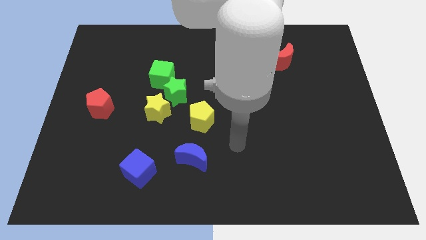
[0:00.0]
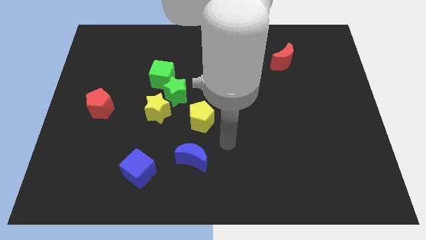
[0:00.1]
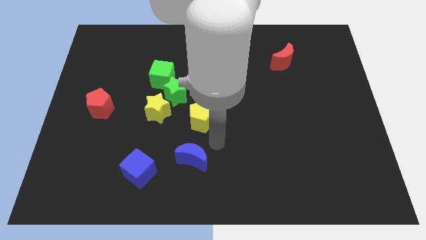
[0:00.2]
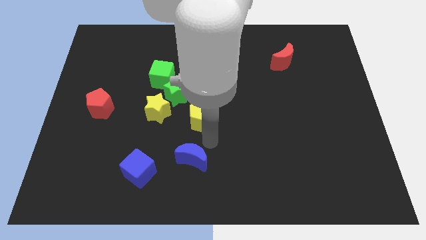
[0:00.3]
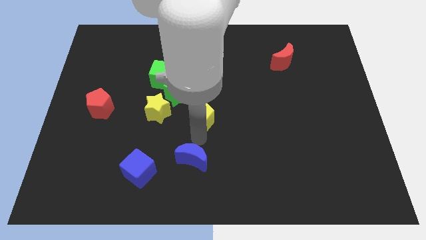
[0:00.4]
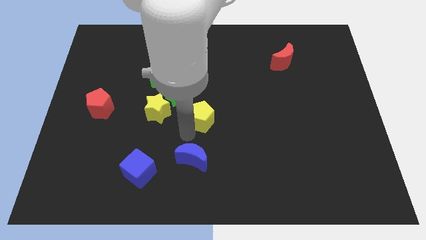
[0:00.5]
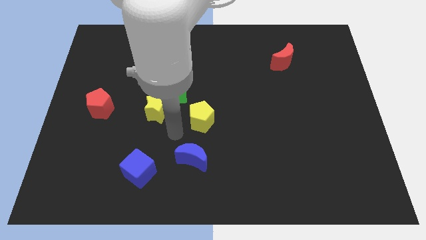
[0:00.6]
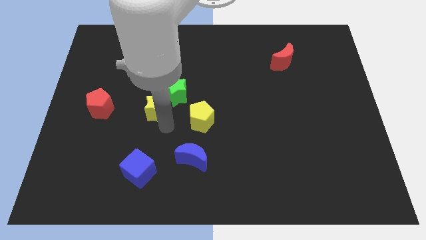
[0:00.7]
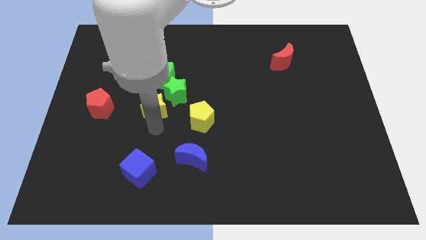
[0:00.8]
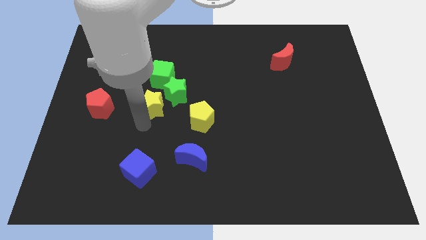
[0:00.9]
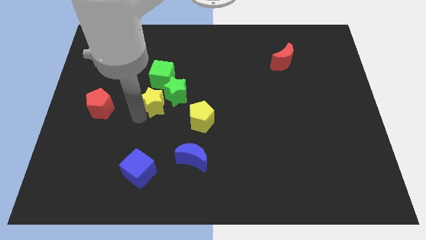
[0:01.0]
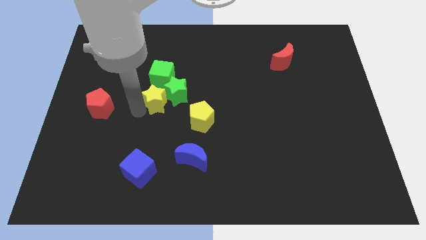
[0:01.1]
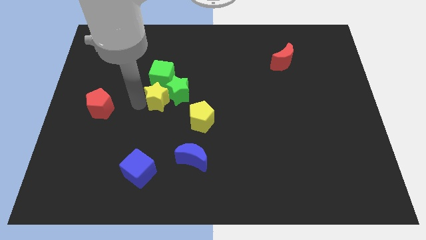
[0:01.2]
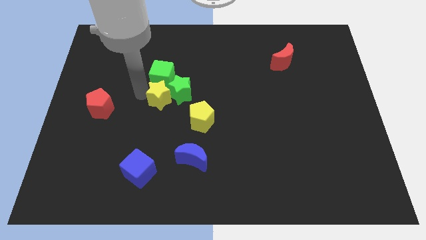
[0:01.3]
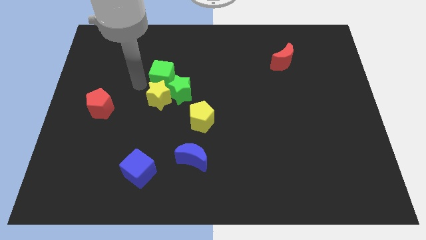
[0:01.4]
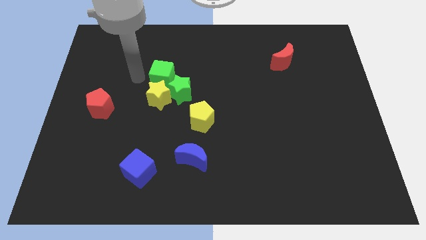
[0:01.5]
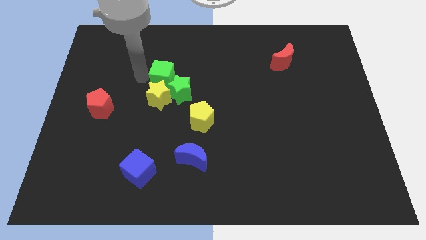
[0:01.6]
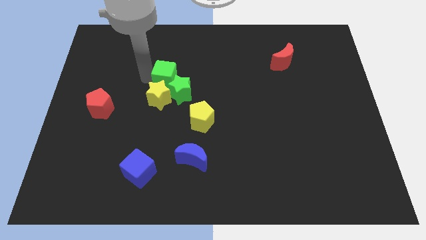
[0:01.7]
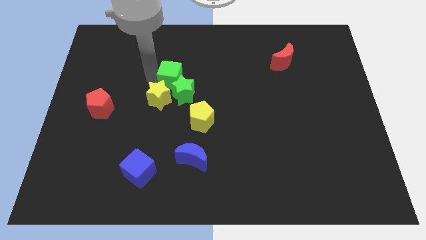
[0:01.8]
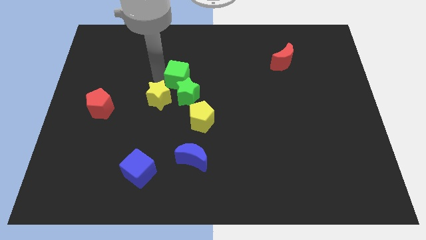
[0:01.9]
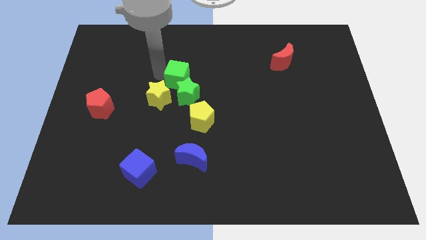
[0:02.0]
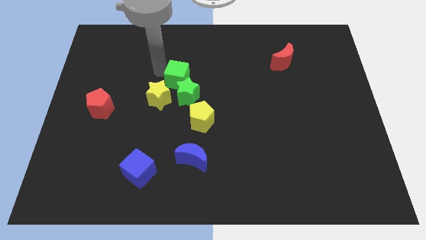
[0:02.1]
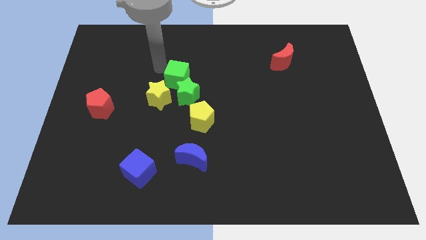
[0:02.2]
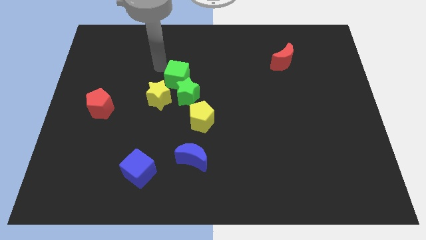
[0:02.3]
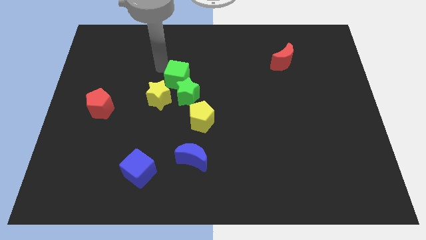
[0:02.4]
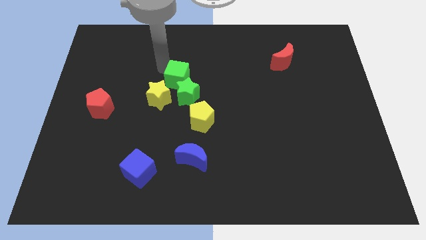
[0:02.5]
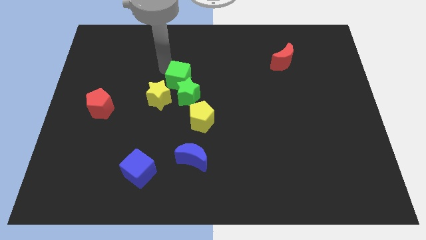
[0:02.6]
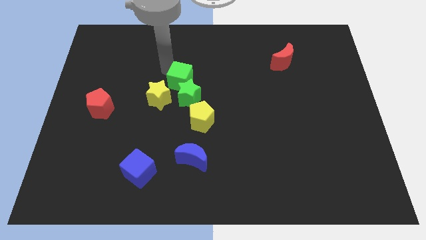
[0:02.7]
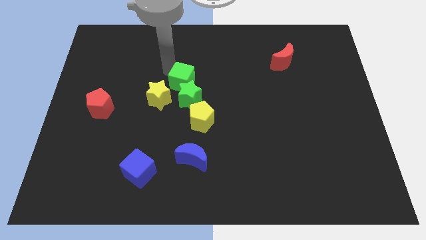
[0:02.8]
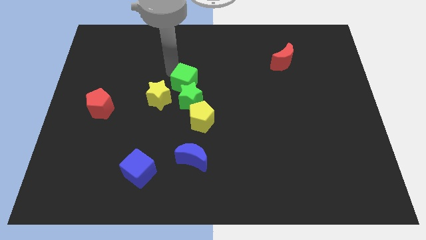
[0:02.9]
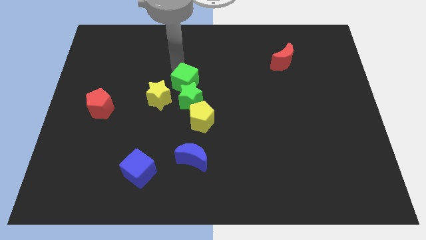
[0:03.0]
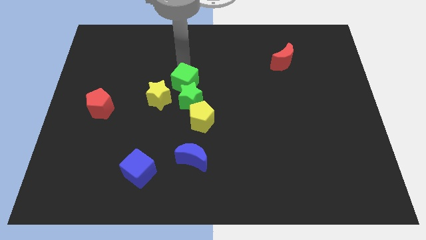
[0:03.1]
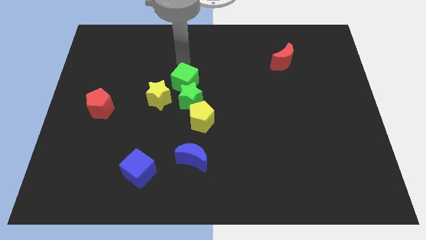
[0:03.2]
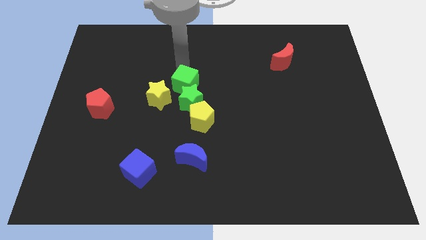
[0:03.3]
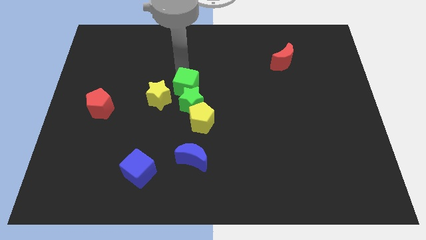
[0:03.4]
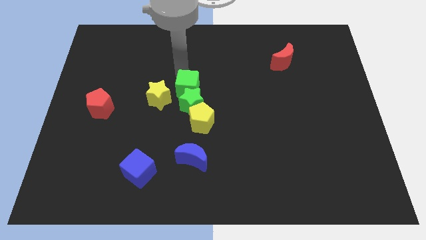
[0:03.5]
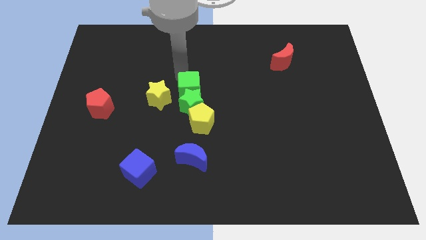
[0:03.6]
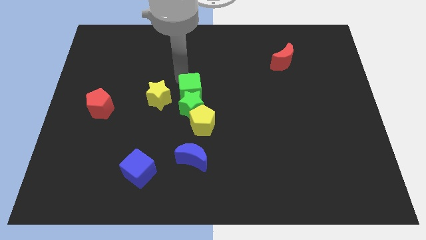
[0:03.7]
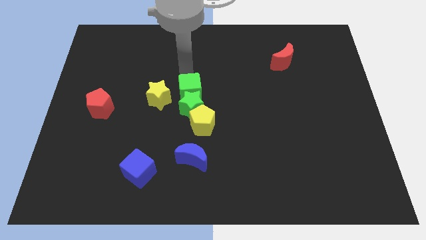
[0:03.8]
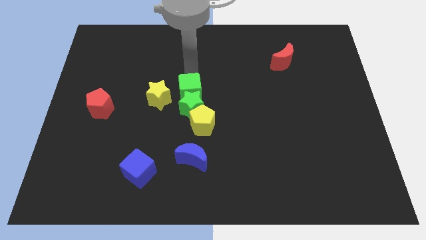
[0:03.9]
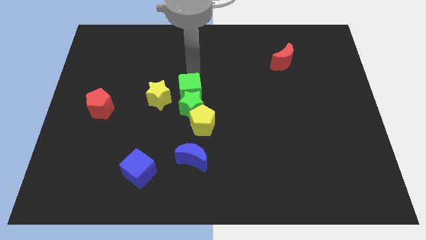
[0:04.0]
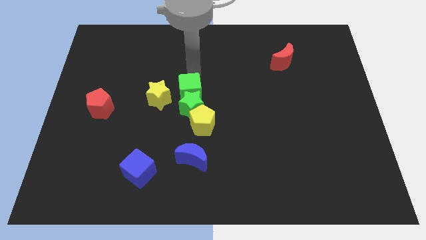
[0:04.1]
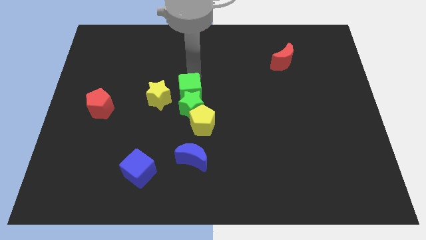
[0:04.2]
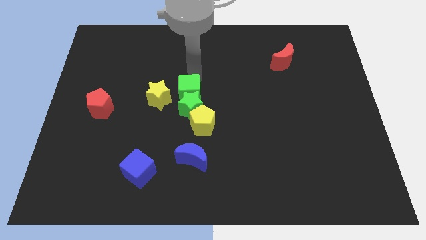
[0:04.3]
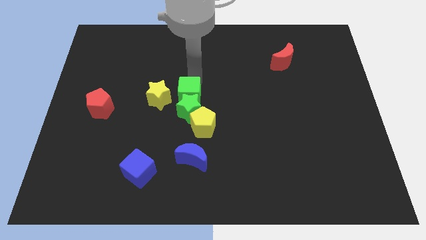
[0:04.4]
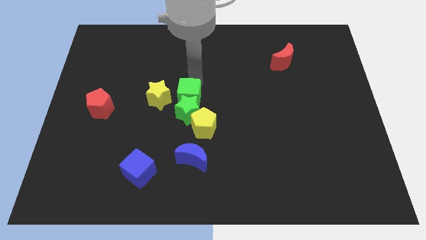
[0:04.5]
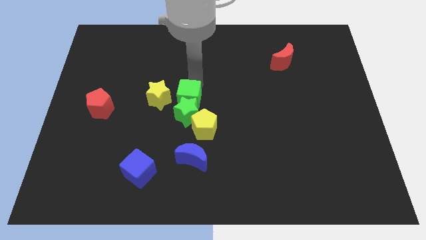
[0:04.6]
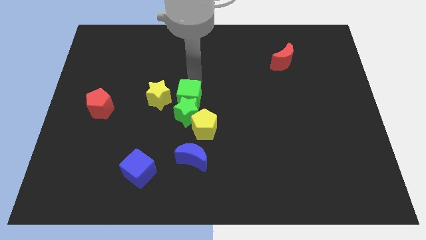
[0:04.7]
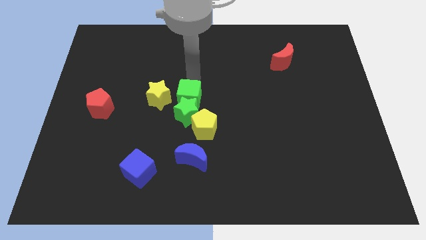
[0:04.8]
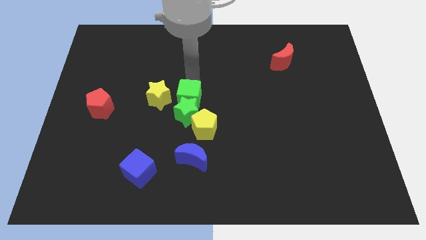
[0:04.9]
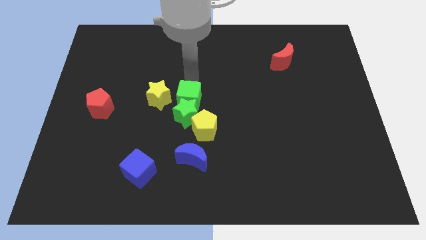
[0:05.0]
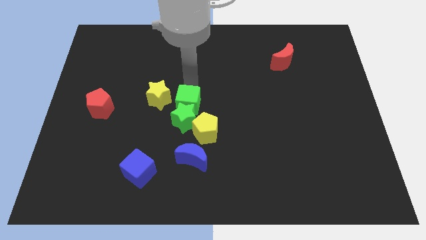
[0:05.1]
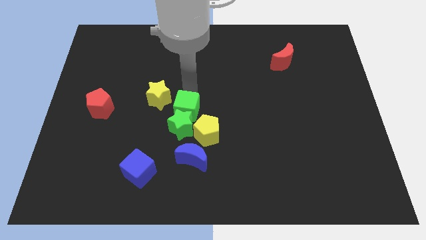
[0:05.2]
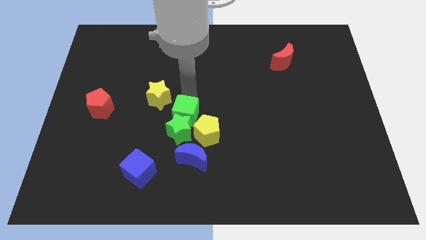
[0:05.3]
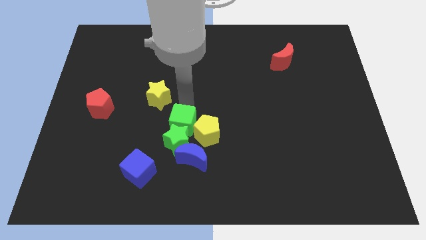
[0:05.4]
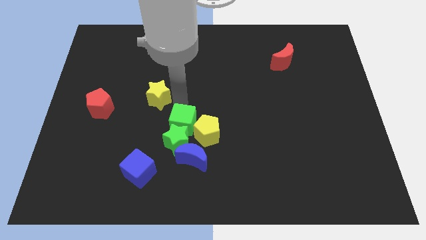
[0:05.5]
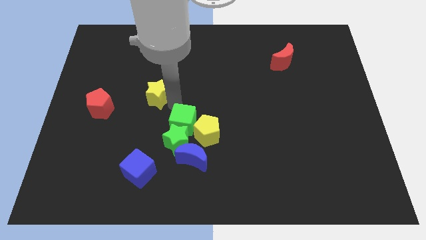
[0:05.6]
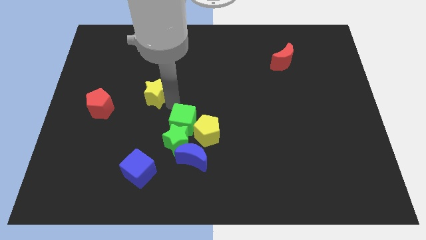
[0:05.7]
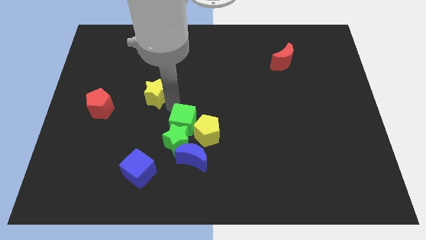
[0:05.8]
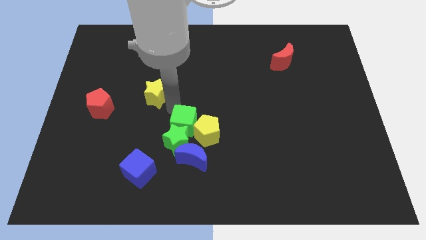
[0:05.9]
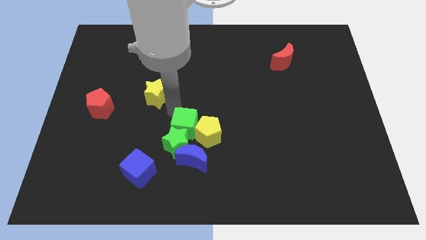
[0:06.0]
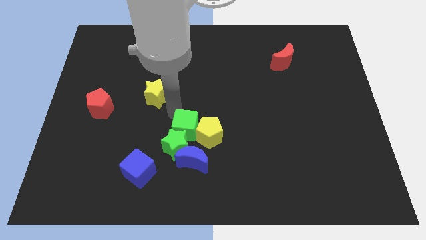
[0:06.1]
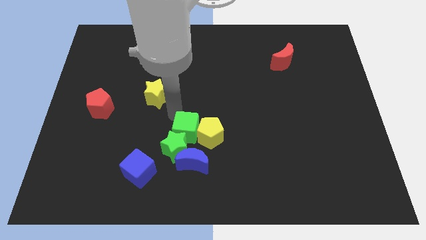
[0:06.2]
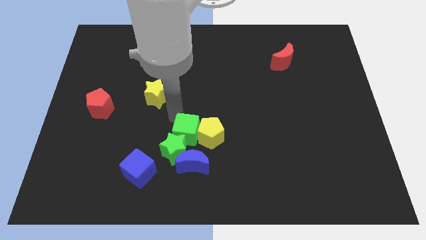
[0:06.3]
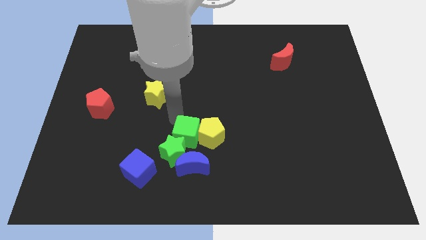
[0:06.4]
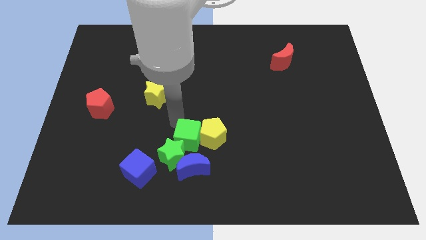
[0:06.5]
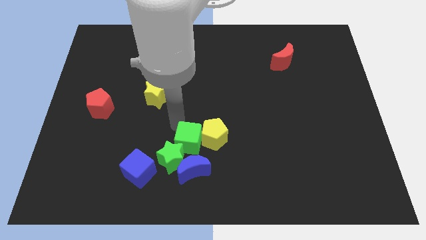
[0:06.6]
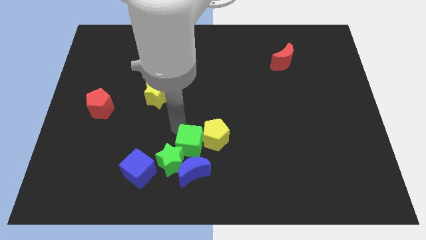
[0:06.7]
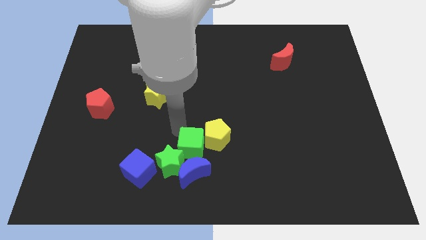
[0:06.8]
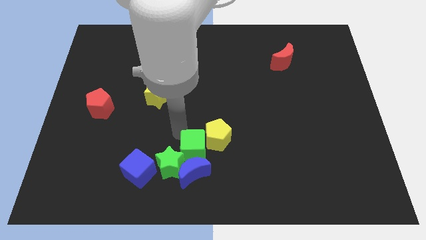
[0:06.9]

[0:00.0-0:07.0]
move the green cube next to the blue moon
